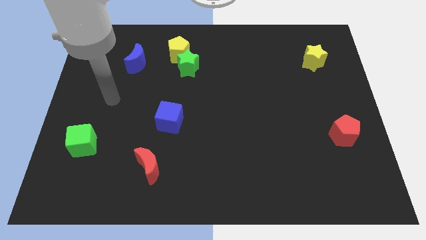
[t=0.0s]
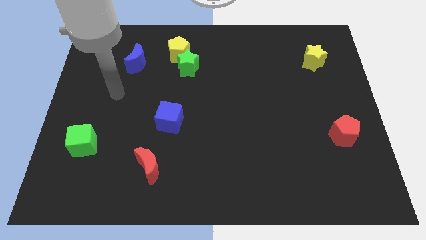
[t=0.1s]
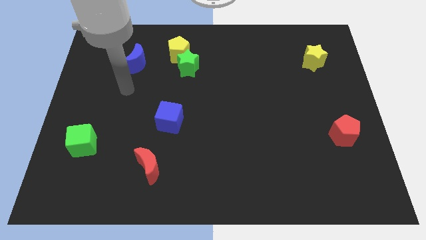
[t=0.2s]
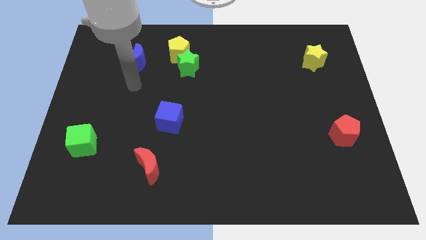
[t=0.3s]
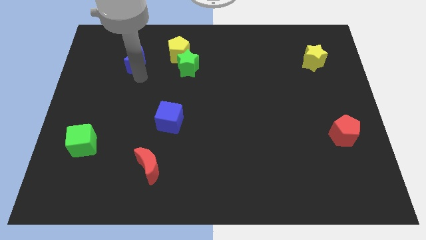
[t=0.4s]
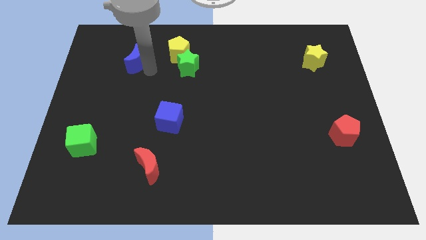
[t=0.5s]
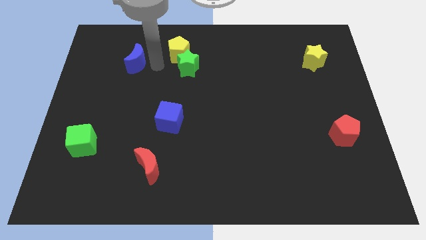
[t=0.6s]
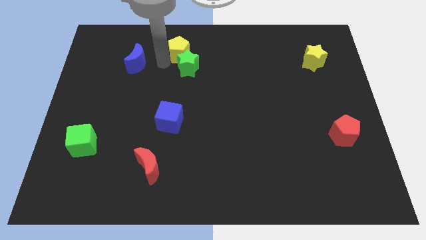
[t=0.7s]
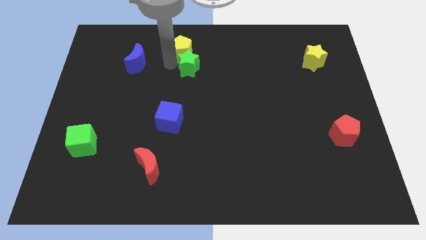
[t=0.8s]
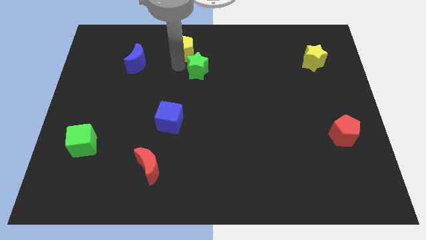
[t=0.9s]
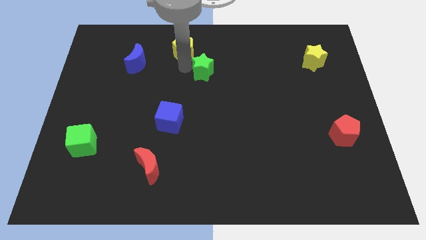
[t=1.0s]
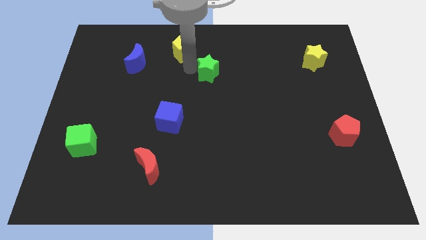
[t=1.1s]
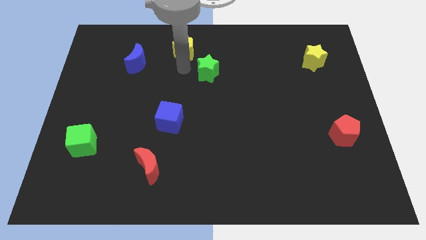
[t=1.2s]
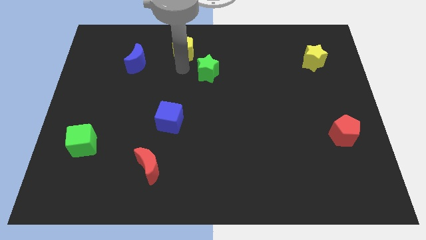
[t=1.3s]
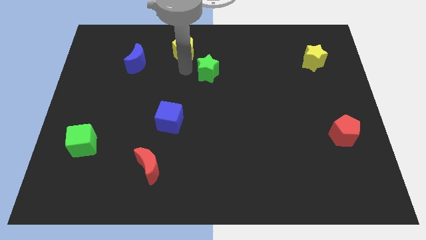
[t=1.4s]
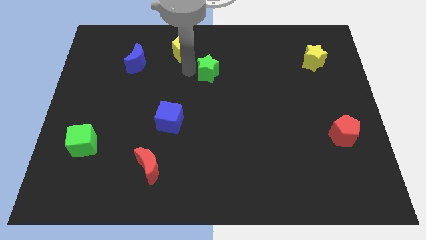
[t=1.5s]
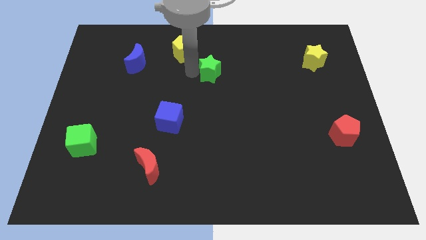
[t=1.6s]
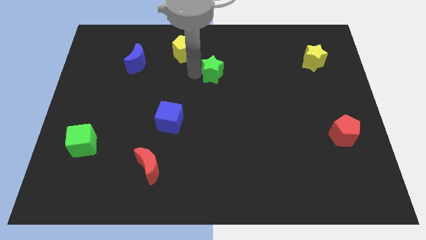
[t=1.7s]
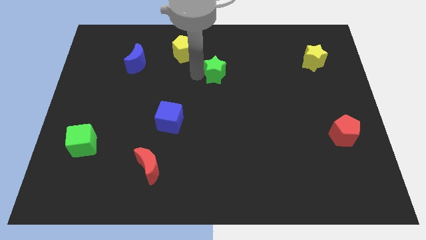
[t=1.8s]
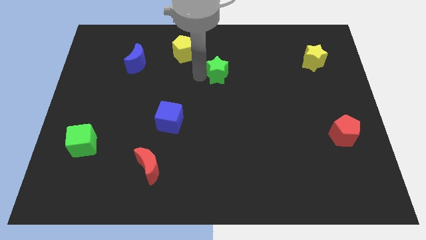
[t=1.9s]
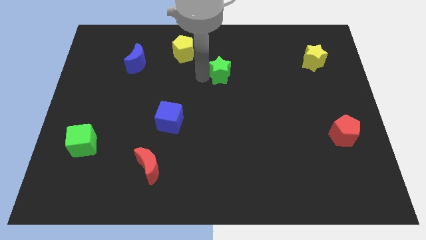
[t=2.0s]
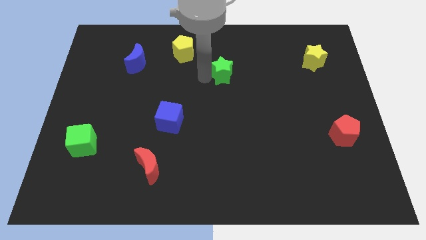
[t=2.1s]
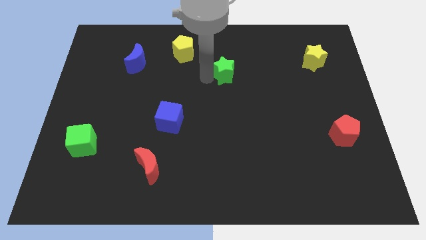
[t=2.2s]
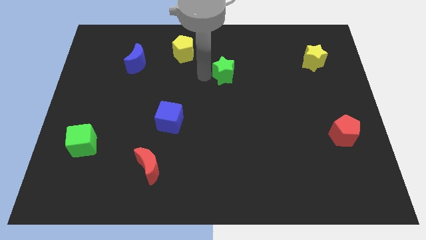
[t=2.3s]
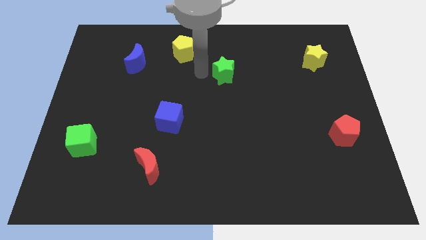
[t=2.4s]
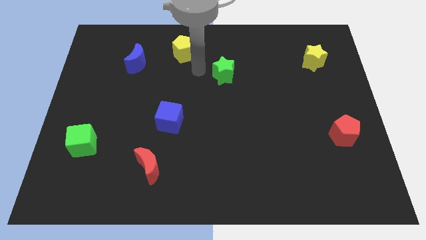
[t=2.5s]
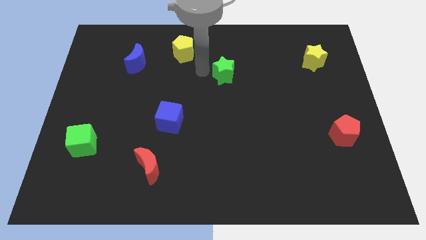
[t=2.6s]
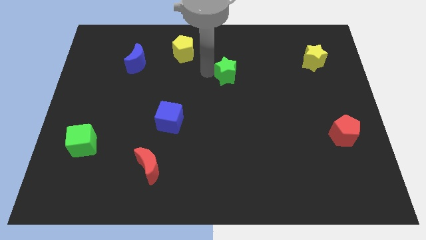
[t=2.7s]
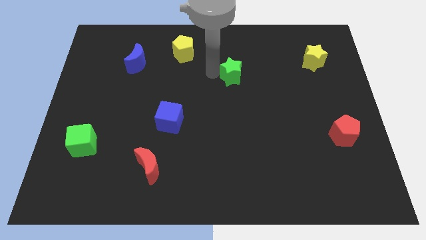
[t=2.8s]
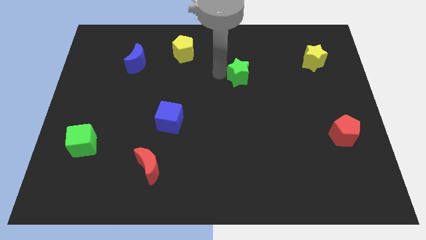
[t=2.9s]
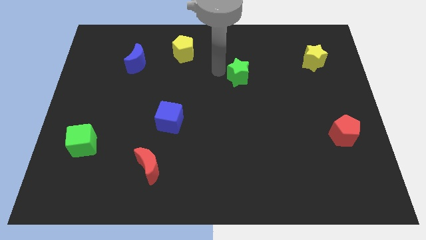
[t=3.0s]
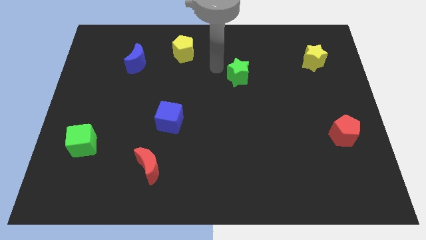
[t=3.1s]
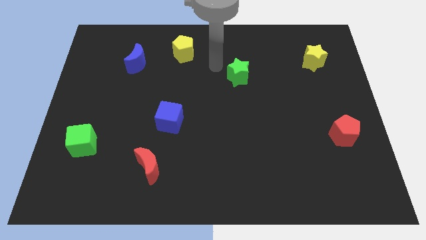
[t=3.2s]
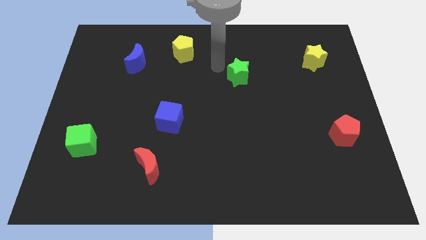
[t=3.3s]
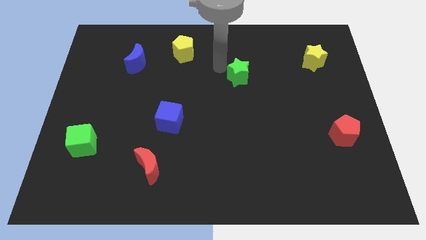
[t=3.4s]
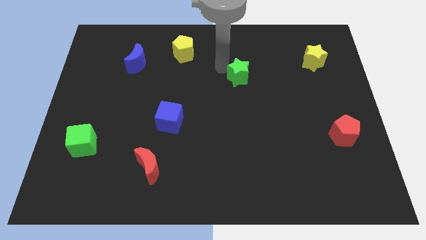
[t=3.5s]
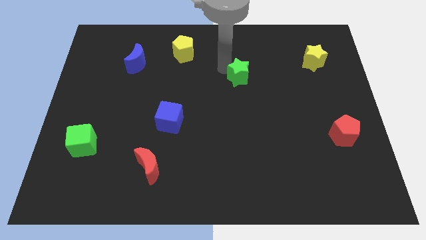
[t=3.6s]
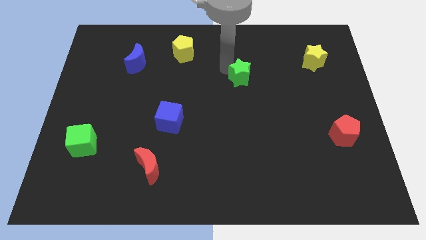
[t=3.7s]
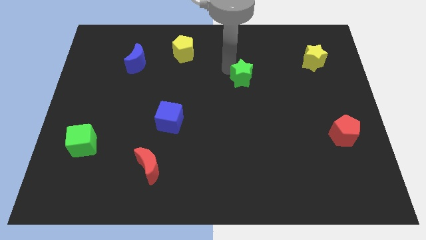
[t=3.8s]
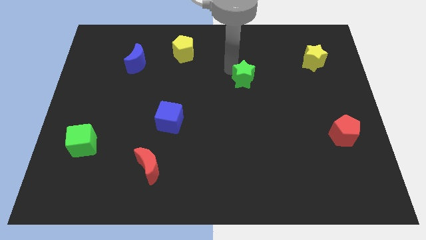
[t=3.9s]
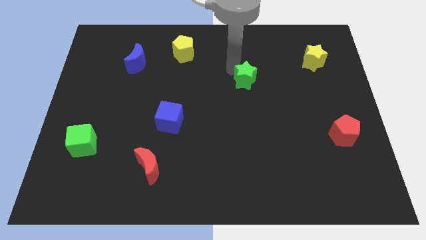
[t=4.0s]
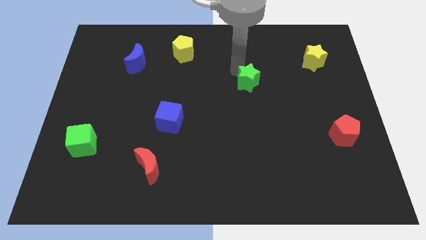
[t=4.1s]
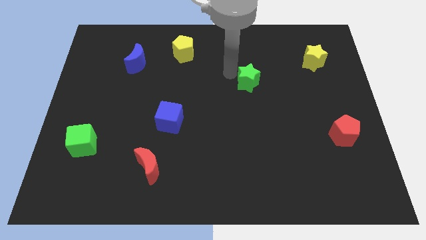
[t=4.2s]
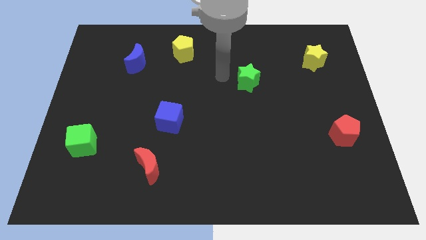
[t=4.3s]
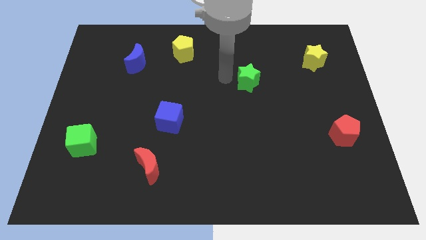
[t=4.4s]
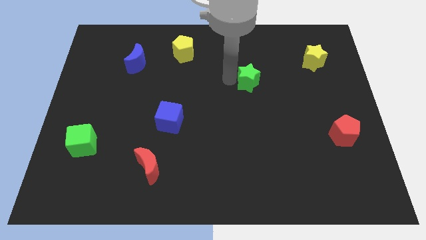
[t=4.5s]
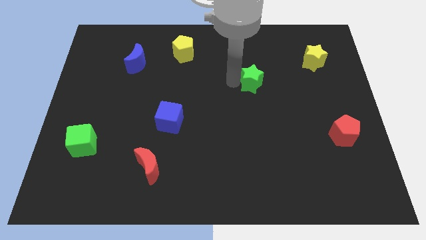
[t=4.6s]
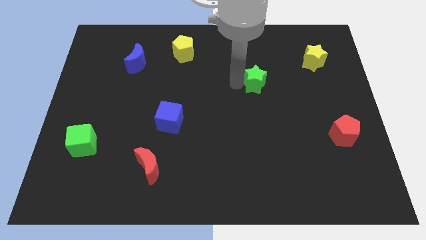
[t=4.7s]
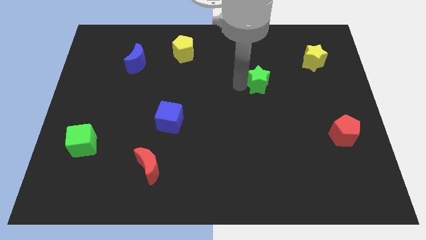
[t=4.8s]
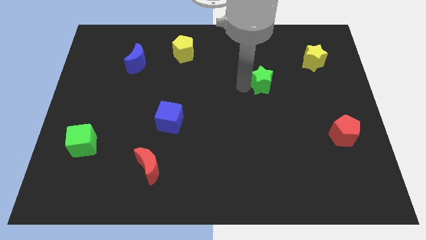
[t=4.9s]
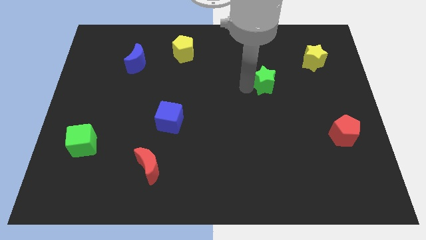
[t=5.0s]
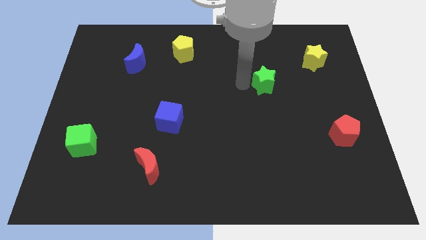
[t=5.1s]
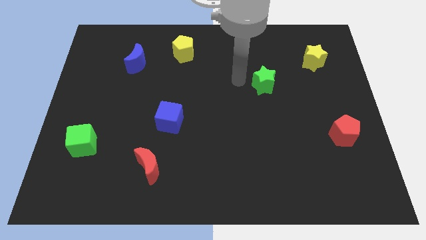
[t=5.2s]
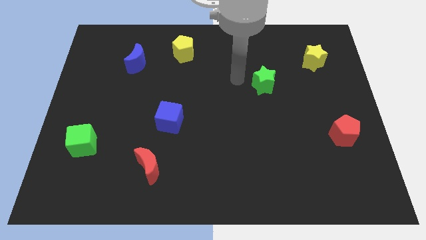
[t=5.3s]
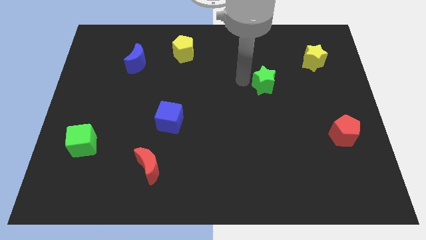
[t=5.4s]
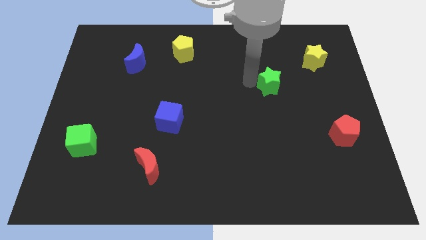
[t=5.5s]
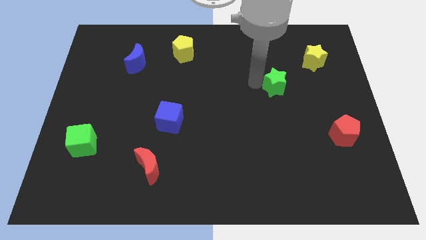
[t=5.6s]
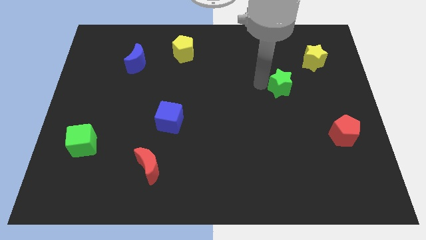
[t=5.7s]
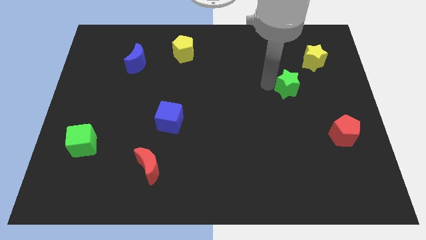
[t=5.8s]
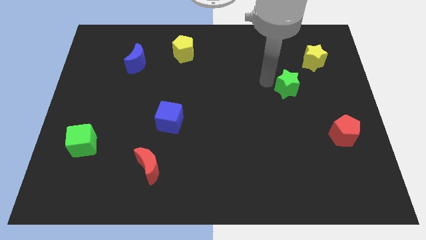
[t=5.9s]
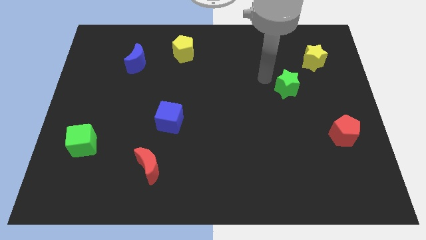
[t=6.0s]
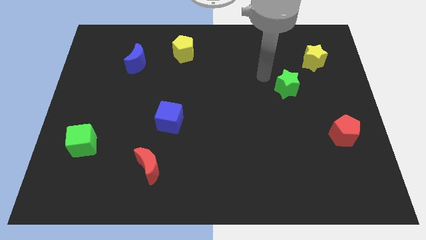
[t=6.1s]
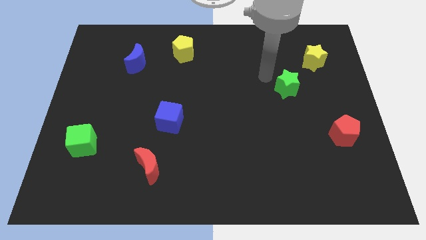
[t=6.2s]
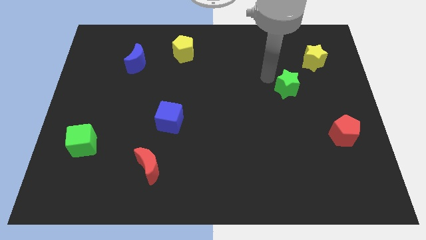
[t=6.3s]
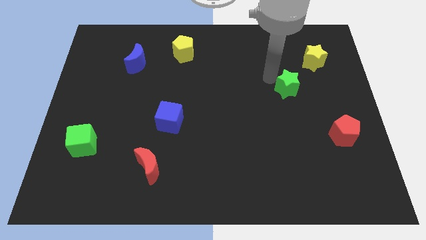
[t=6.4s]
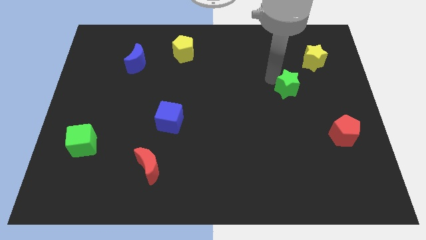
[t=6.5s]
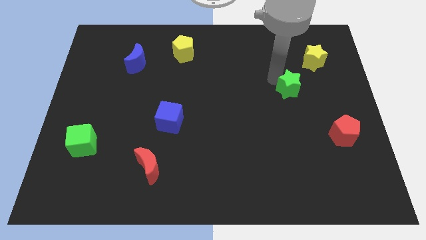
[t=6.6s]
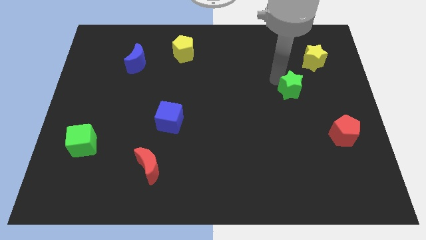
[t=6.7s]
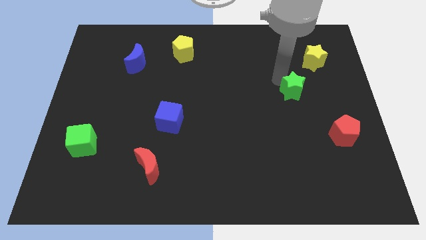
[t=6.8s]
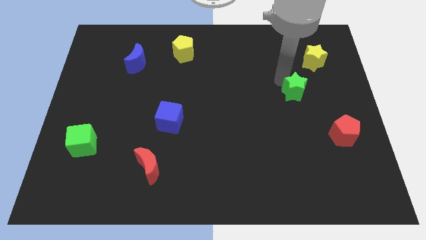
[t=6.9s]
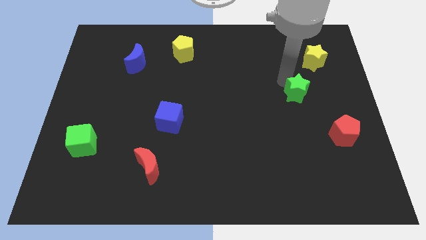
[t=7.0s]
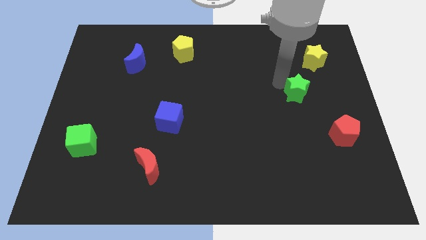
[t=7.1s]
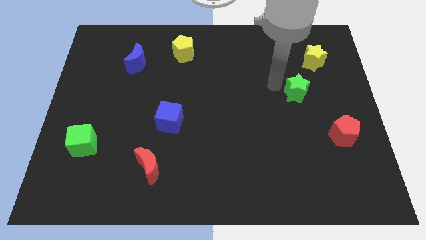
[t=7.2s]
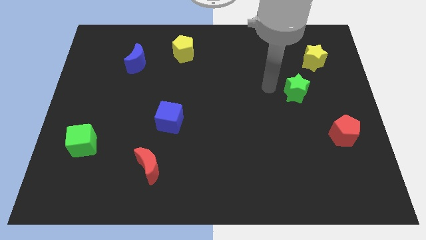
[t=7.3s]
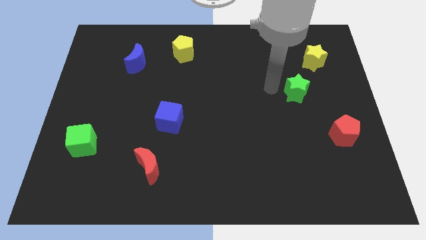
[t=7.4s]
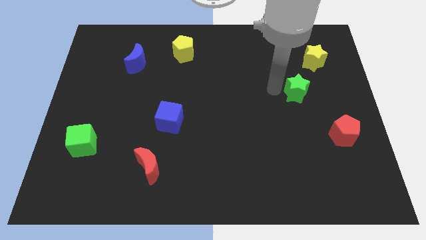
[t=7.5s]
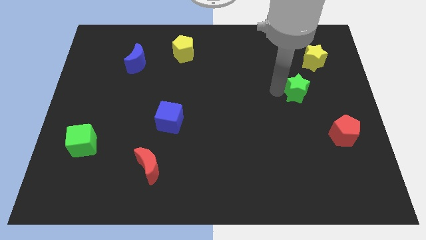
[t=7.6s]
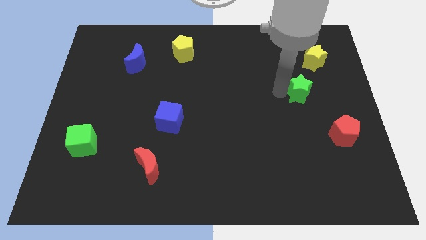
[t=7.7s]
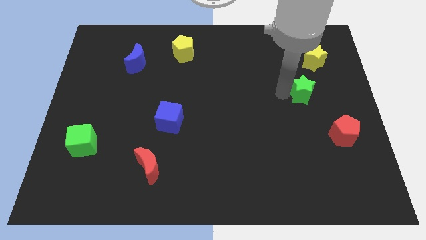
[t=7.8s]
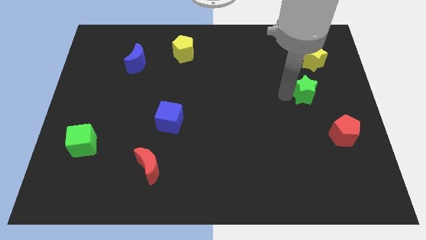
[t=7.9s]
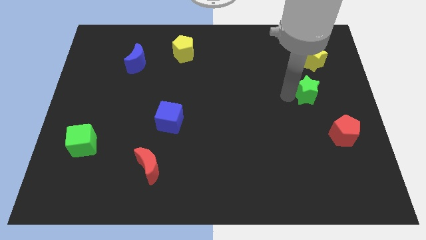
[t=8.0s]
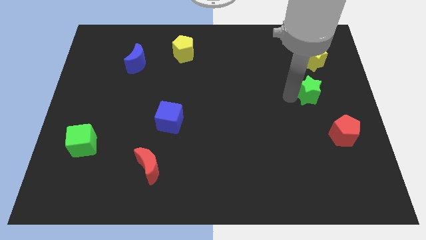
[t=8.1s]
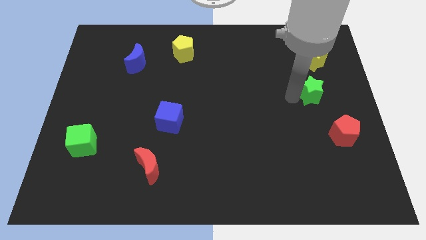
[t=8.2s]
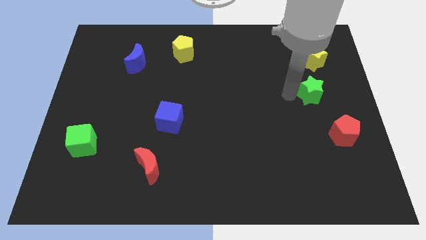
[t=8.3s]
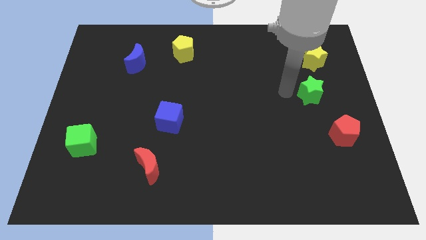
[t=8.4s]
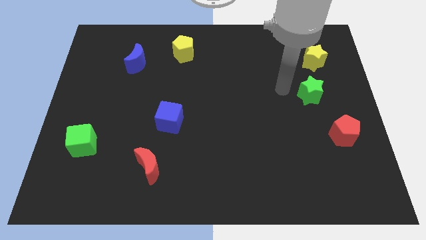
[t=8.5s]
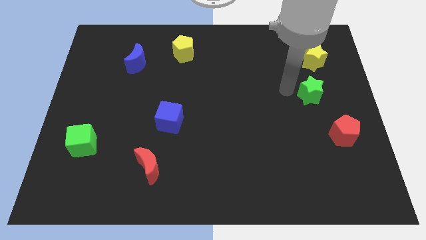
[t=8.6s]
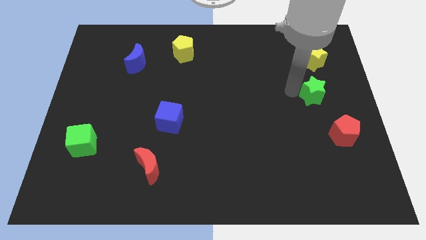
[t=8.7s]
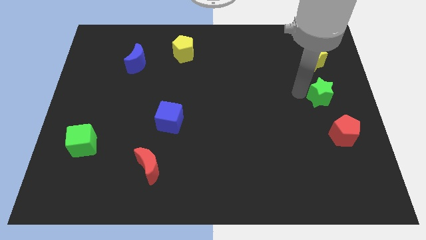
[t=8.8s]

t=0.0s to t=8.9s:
slide the green star to the center right
